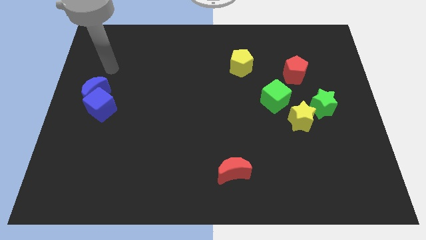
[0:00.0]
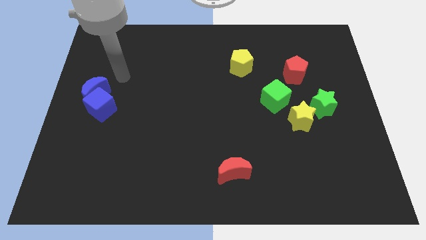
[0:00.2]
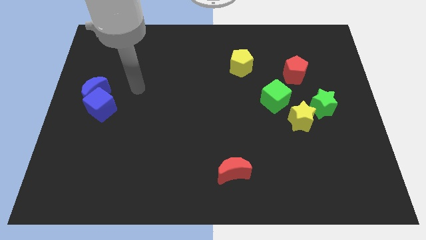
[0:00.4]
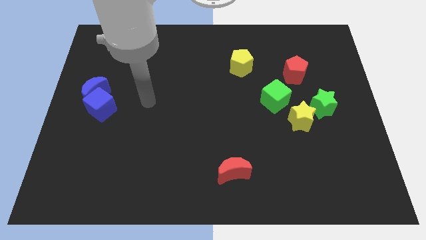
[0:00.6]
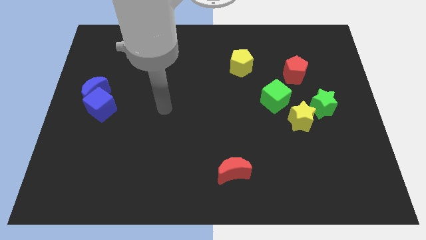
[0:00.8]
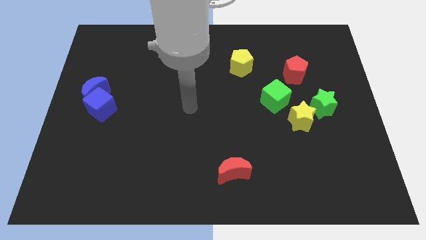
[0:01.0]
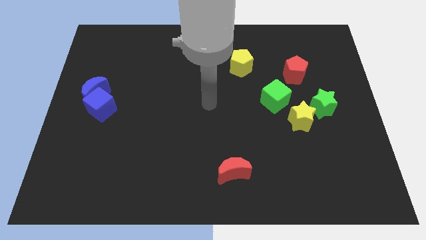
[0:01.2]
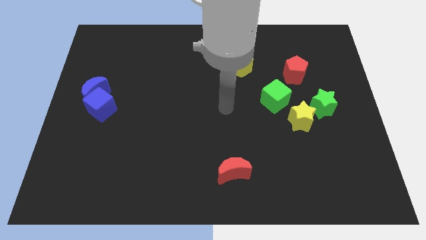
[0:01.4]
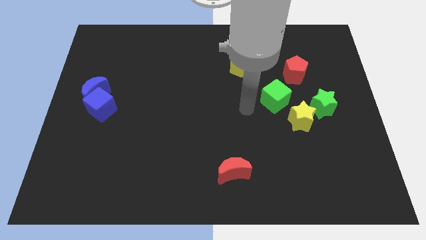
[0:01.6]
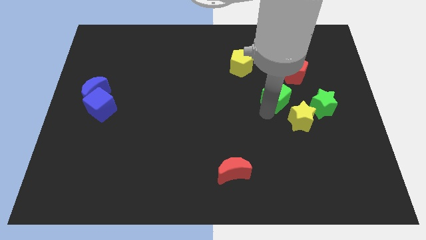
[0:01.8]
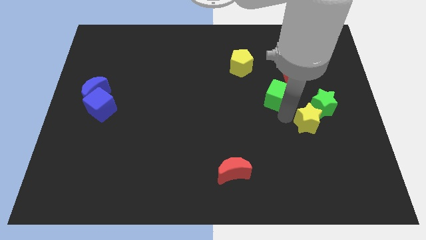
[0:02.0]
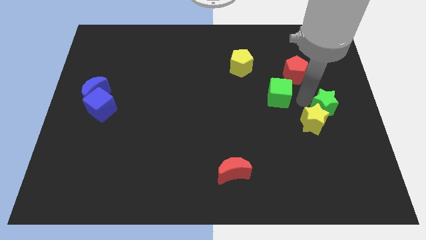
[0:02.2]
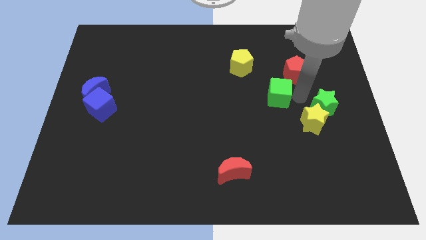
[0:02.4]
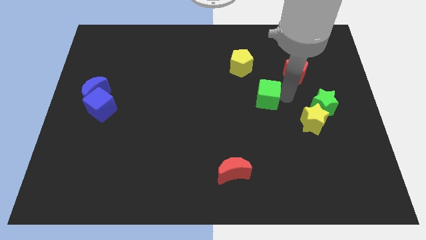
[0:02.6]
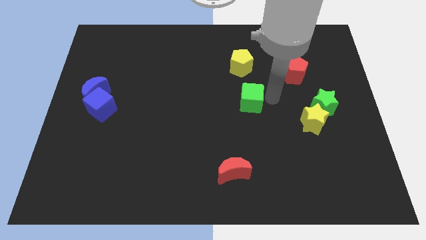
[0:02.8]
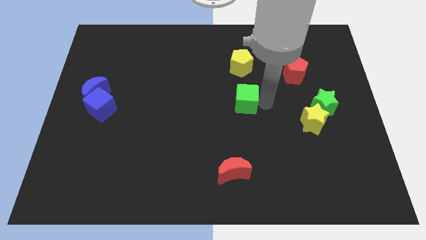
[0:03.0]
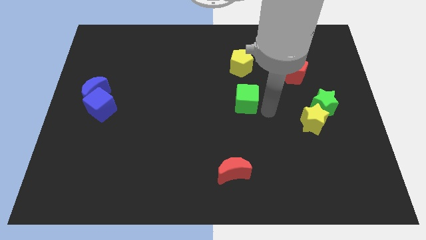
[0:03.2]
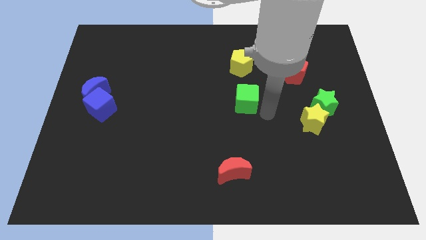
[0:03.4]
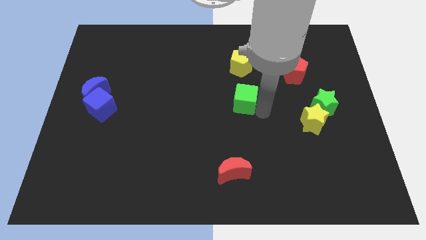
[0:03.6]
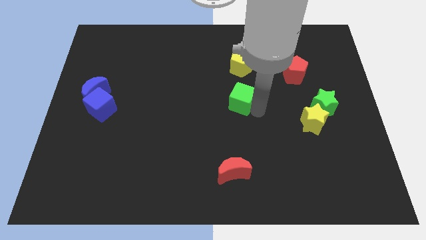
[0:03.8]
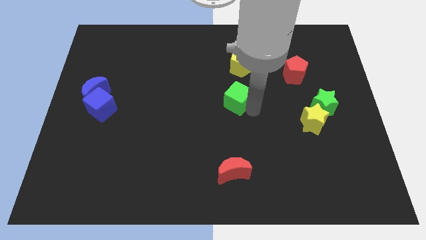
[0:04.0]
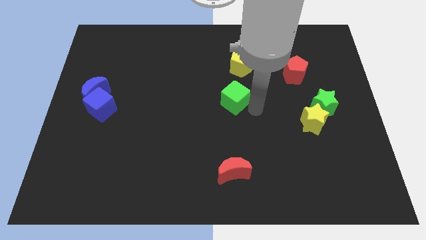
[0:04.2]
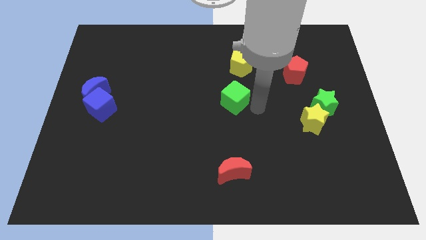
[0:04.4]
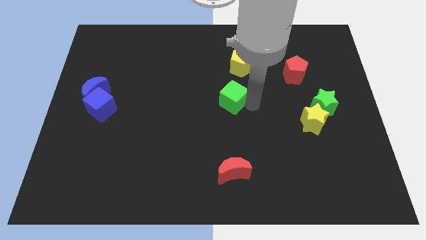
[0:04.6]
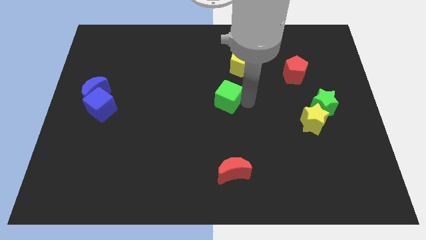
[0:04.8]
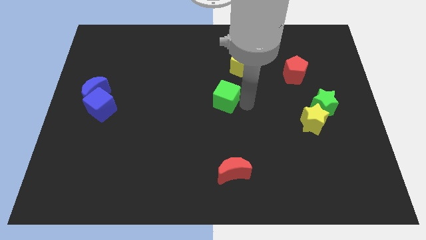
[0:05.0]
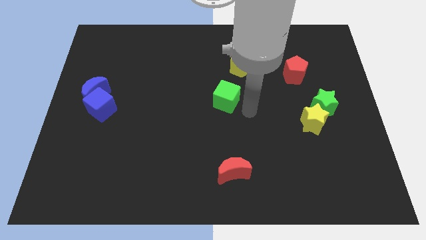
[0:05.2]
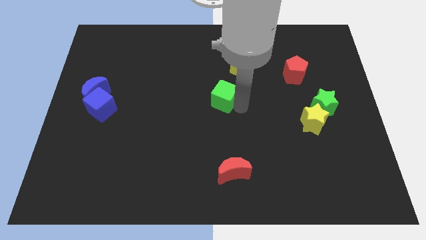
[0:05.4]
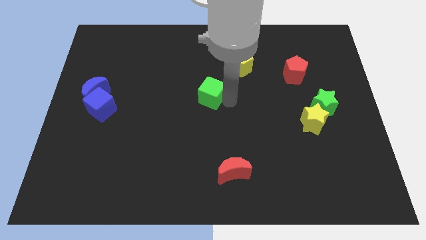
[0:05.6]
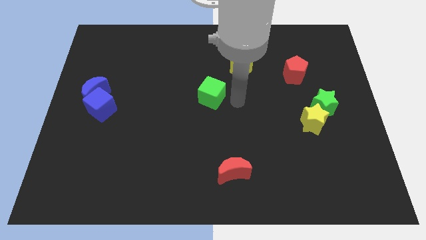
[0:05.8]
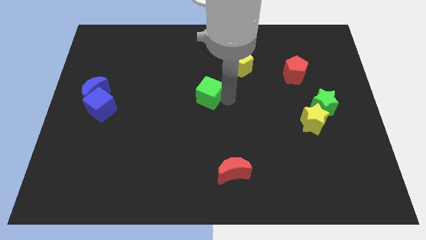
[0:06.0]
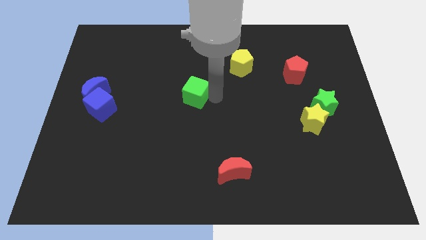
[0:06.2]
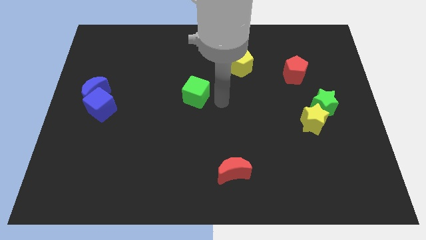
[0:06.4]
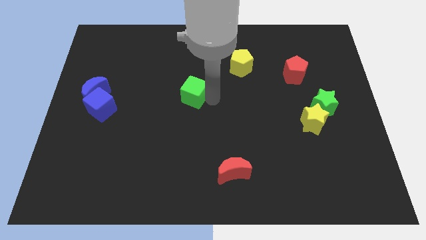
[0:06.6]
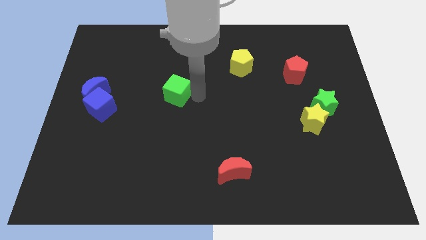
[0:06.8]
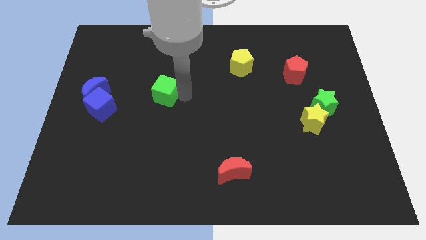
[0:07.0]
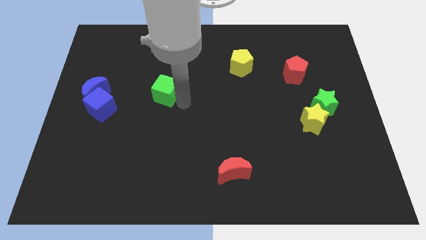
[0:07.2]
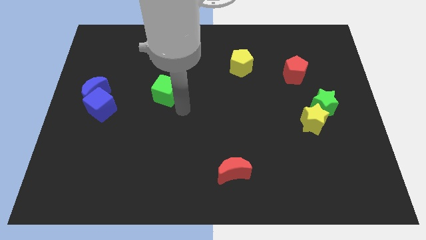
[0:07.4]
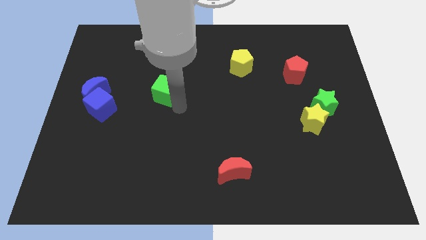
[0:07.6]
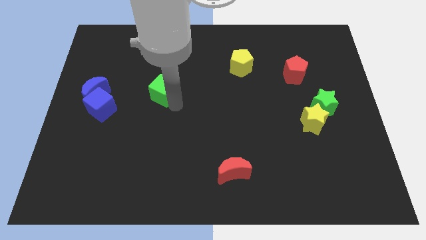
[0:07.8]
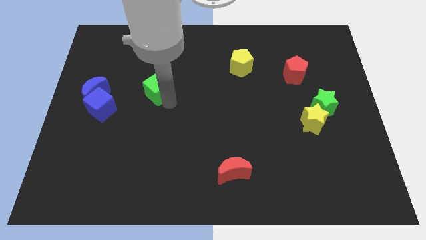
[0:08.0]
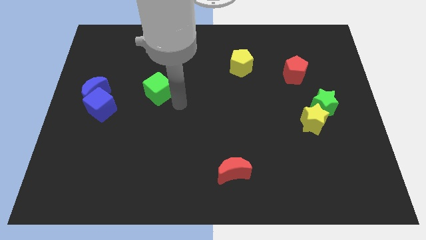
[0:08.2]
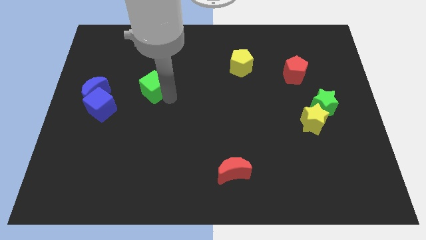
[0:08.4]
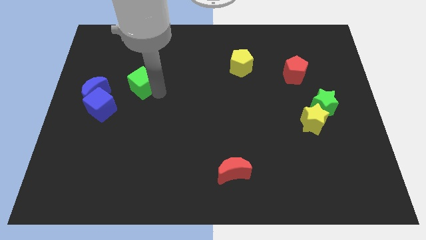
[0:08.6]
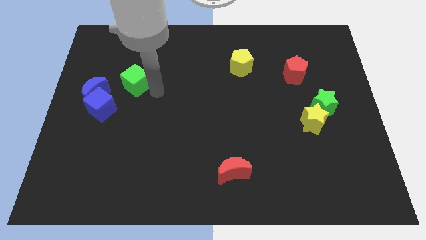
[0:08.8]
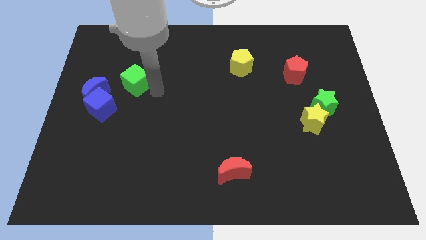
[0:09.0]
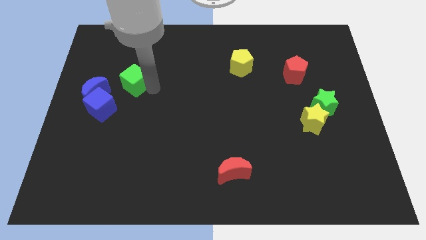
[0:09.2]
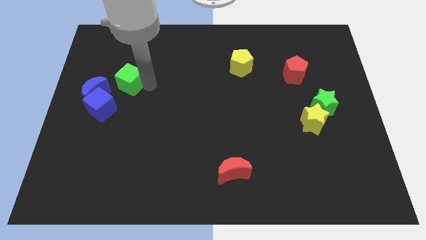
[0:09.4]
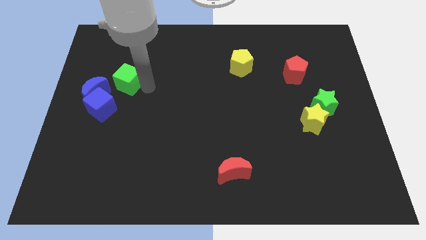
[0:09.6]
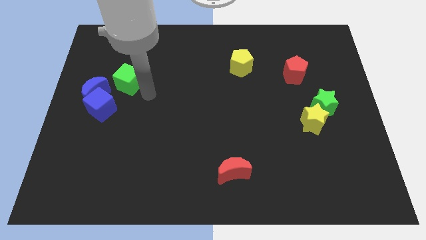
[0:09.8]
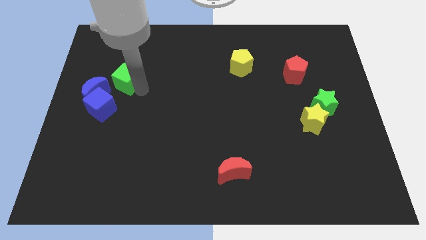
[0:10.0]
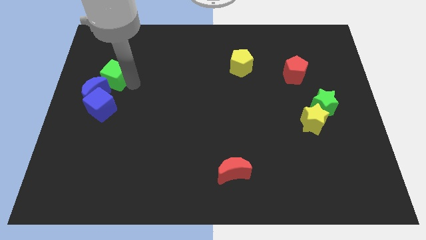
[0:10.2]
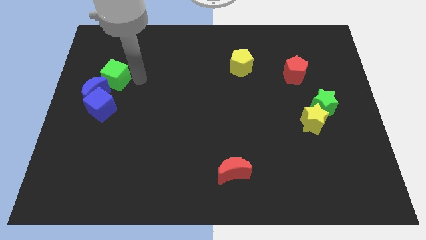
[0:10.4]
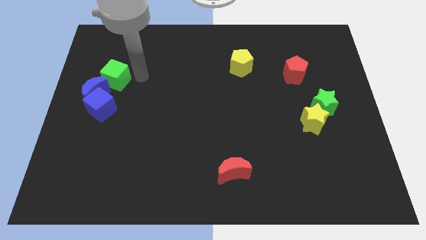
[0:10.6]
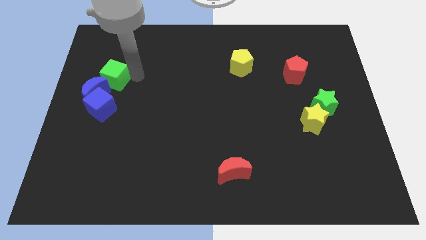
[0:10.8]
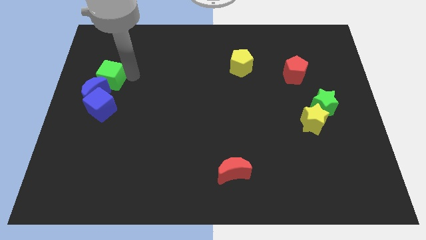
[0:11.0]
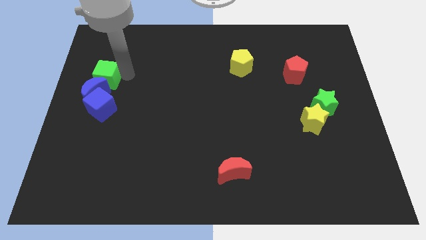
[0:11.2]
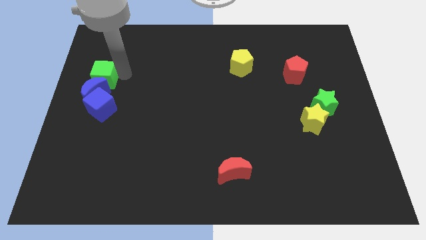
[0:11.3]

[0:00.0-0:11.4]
push the green cube to the left side of the board
